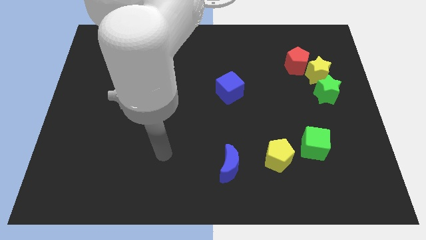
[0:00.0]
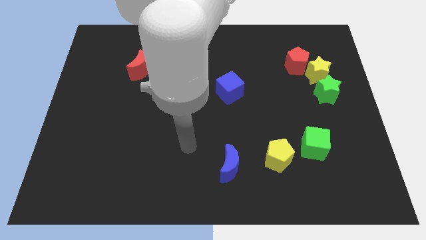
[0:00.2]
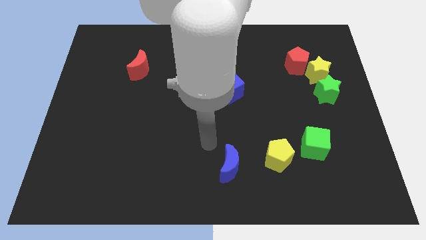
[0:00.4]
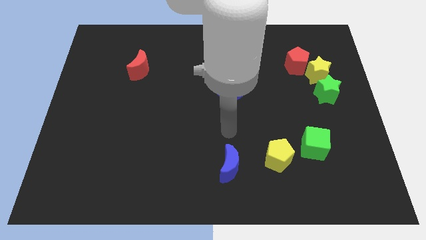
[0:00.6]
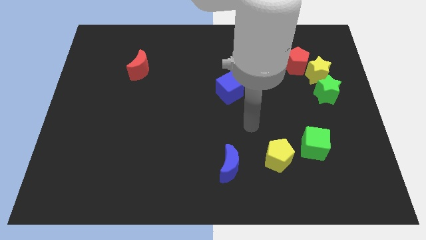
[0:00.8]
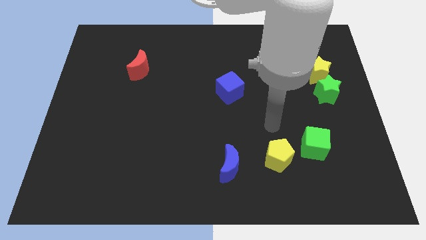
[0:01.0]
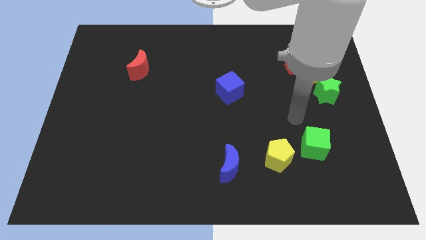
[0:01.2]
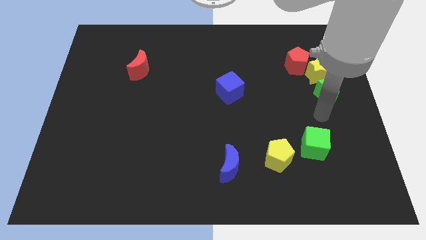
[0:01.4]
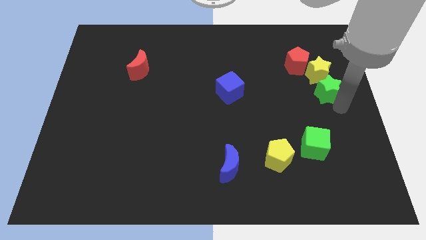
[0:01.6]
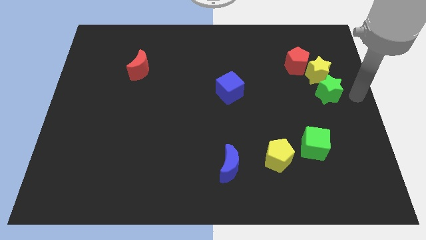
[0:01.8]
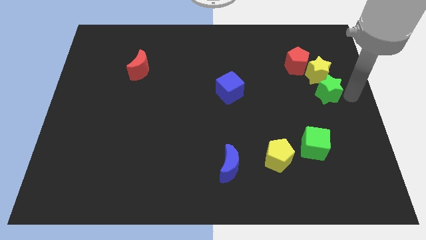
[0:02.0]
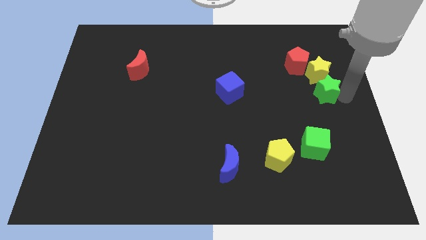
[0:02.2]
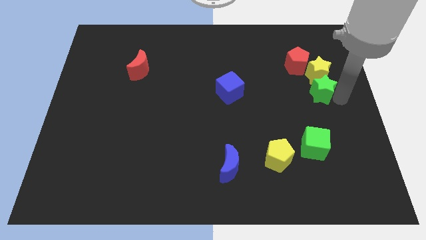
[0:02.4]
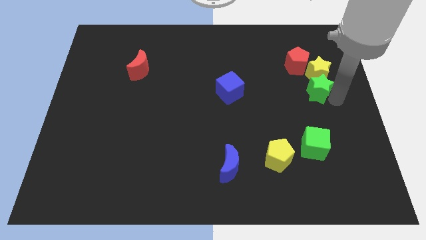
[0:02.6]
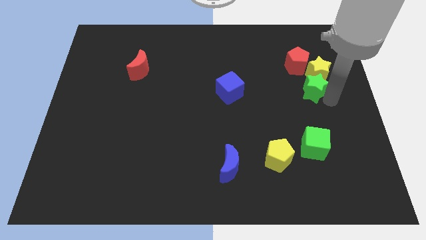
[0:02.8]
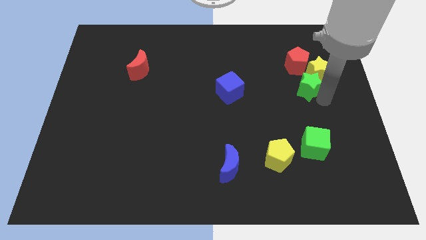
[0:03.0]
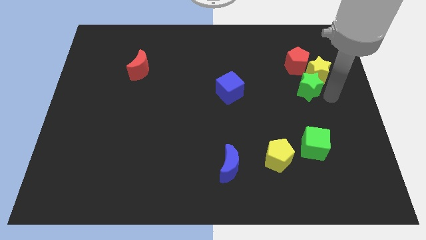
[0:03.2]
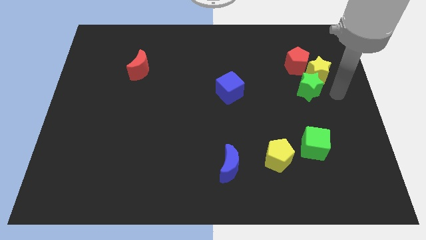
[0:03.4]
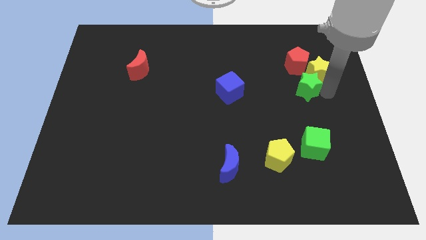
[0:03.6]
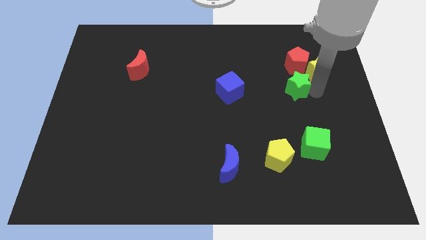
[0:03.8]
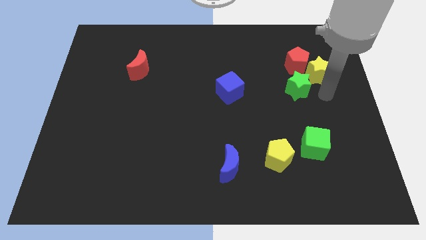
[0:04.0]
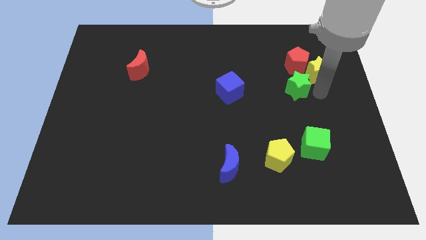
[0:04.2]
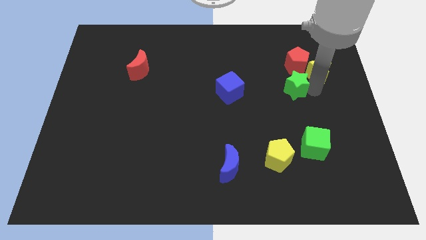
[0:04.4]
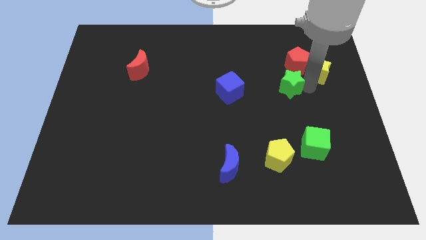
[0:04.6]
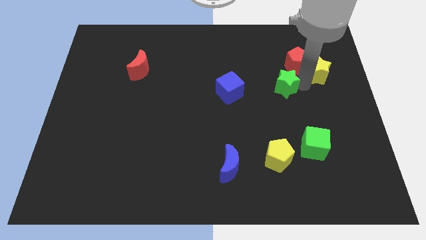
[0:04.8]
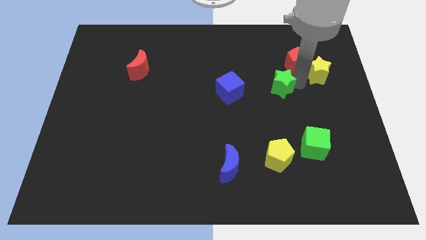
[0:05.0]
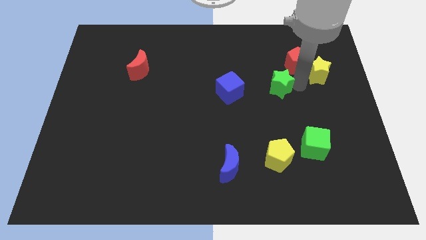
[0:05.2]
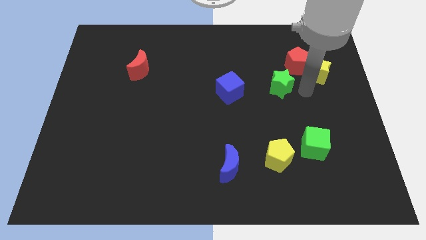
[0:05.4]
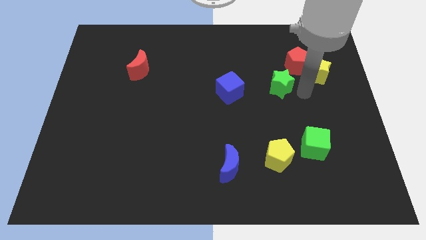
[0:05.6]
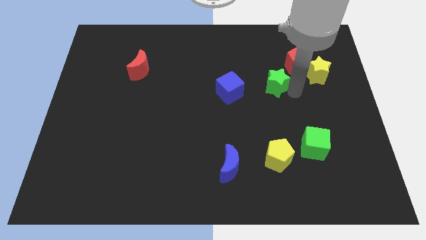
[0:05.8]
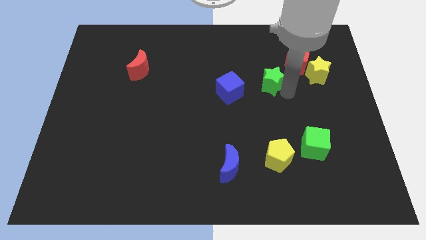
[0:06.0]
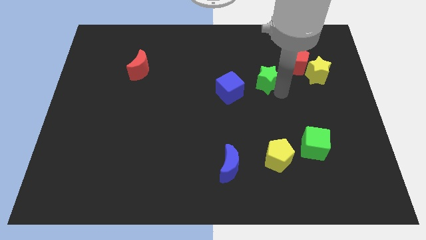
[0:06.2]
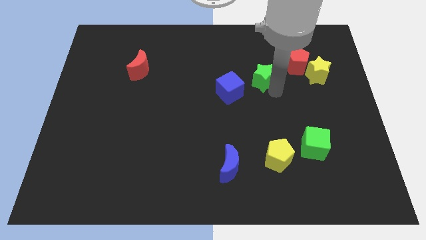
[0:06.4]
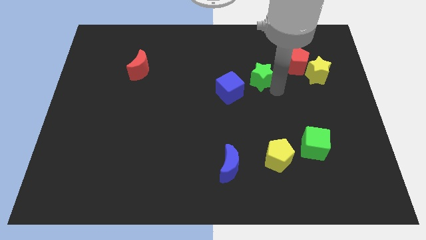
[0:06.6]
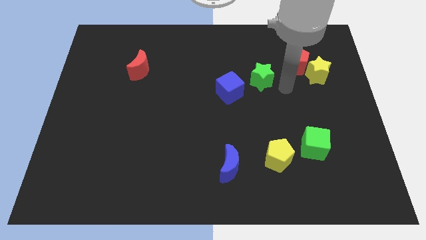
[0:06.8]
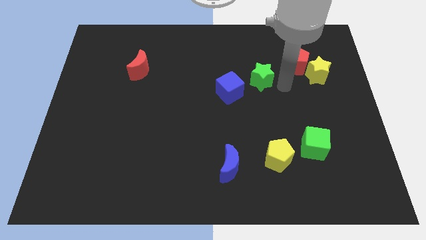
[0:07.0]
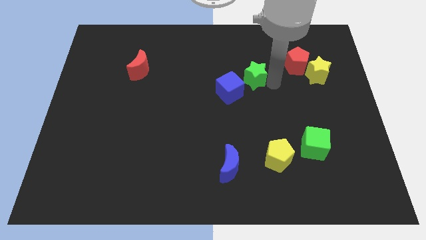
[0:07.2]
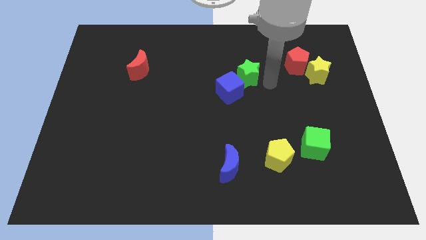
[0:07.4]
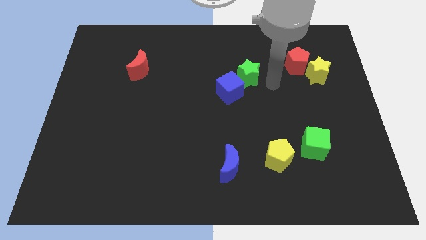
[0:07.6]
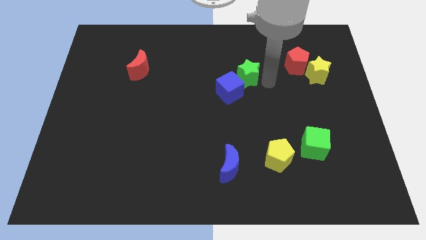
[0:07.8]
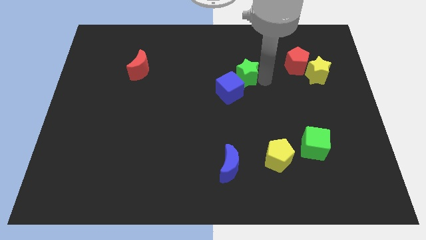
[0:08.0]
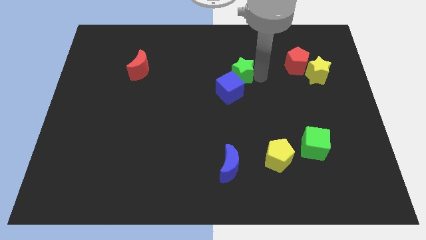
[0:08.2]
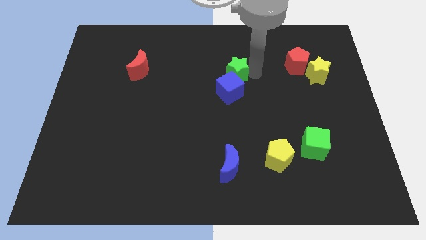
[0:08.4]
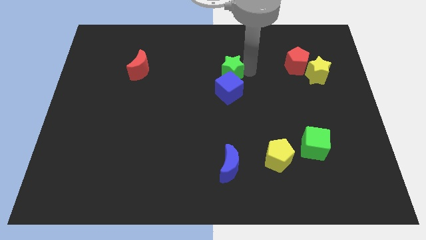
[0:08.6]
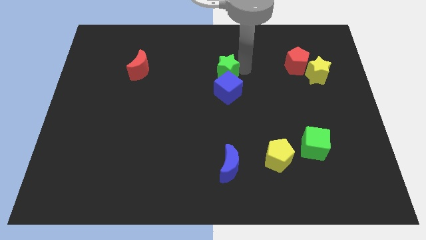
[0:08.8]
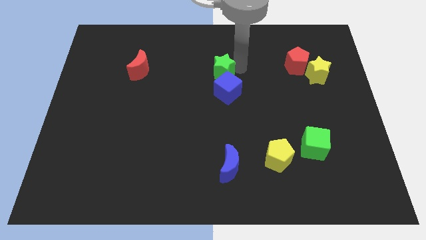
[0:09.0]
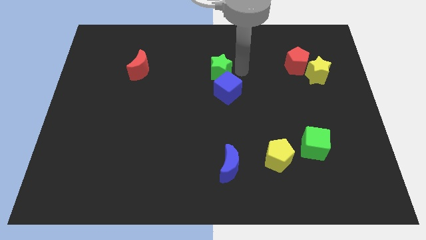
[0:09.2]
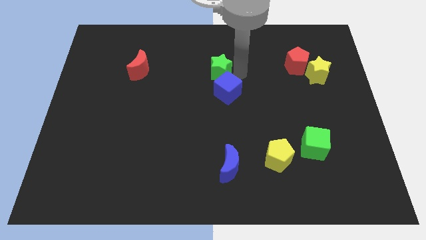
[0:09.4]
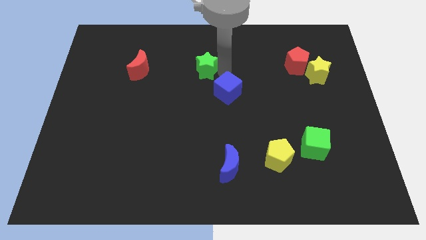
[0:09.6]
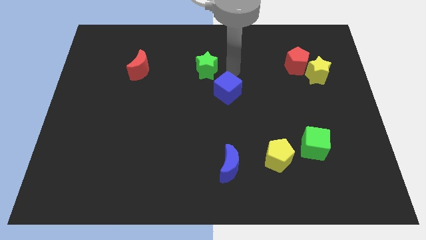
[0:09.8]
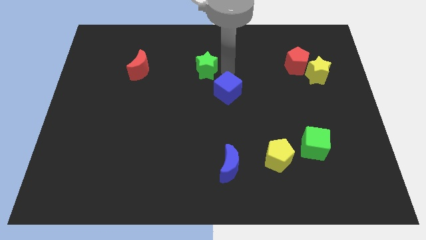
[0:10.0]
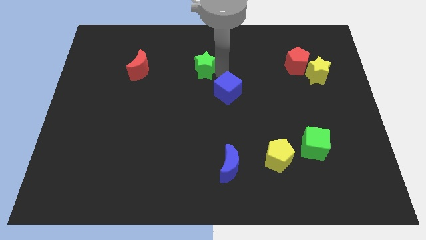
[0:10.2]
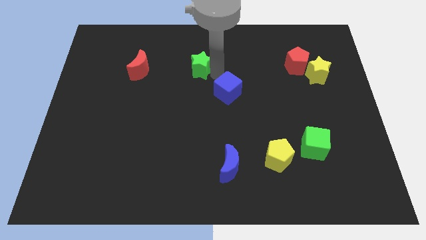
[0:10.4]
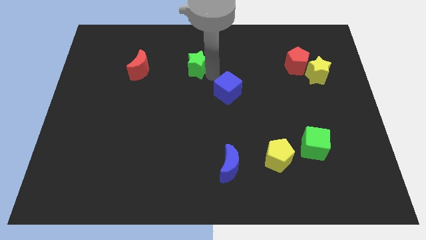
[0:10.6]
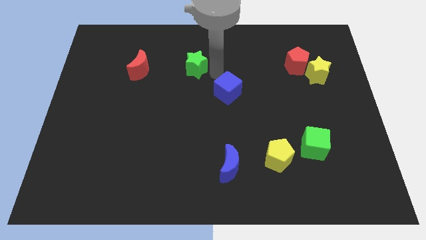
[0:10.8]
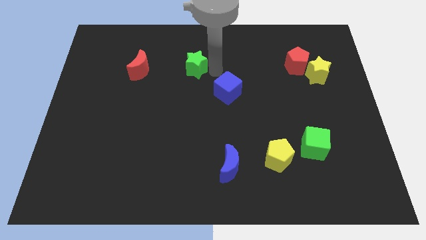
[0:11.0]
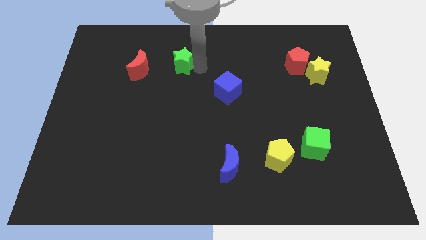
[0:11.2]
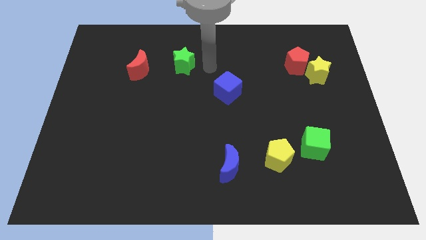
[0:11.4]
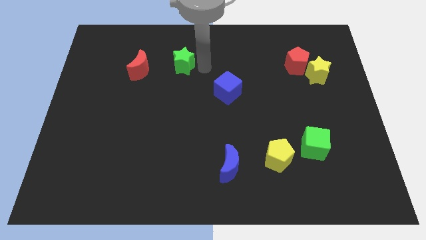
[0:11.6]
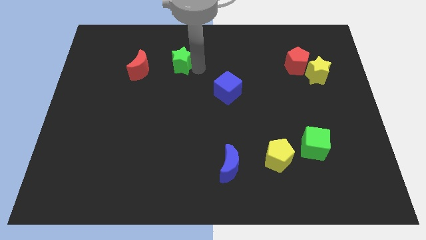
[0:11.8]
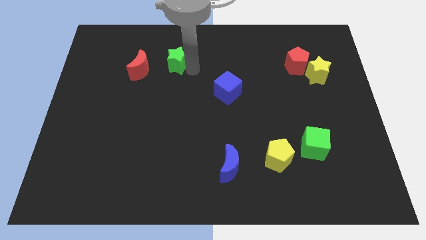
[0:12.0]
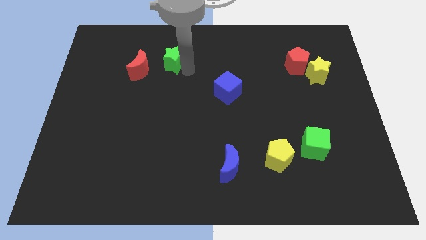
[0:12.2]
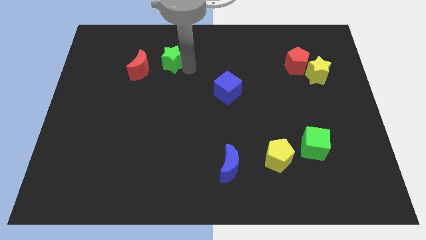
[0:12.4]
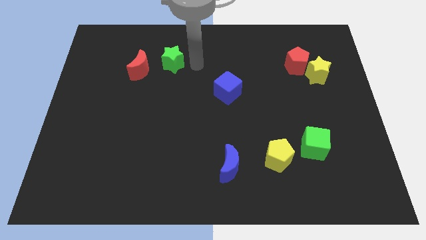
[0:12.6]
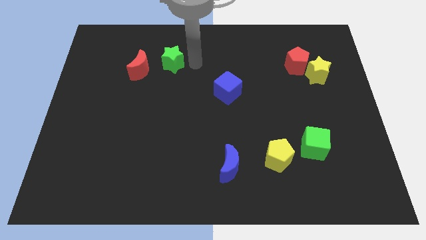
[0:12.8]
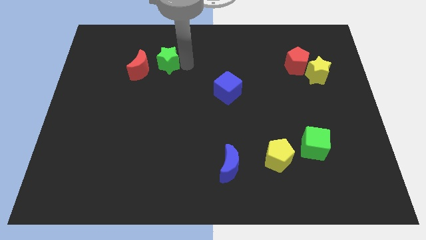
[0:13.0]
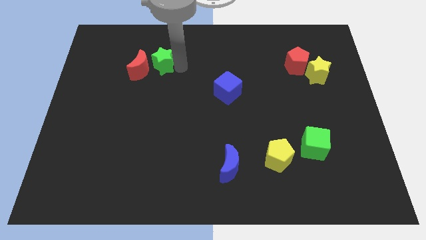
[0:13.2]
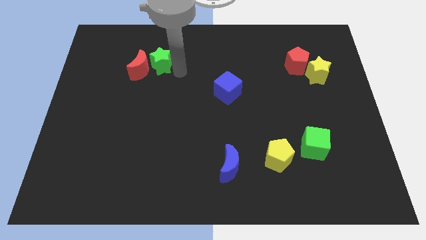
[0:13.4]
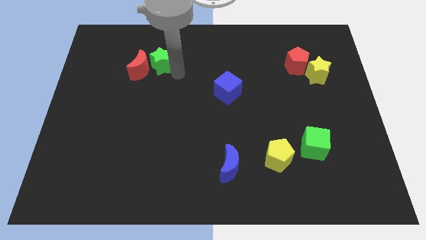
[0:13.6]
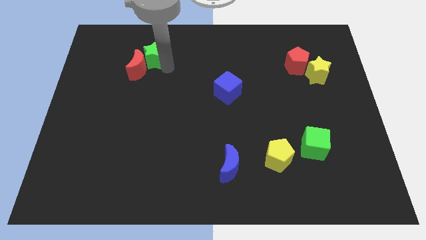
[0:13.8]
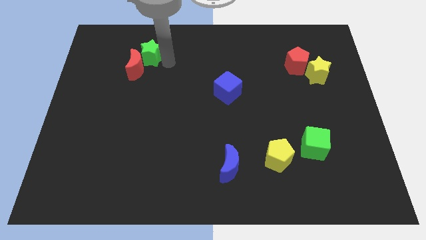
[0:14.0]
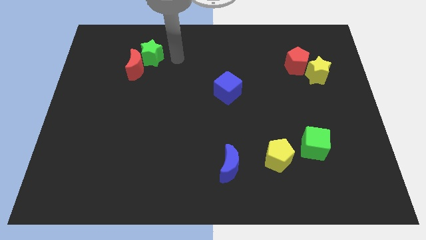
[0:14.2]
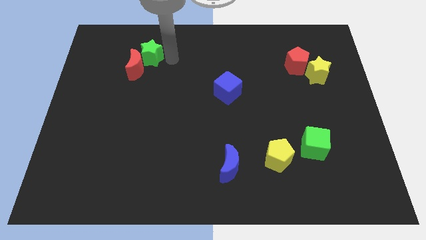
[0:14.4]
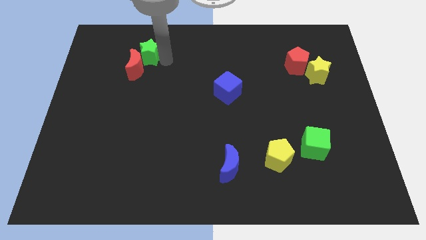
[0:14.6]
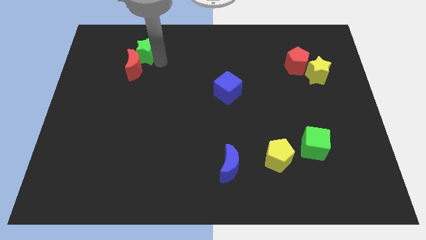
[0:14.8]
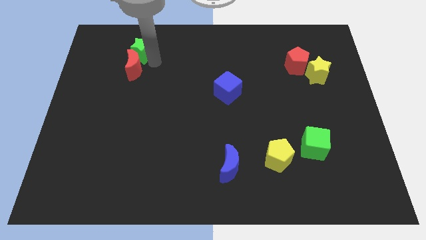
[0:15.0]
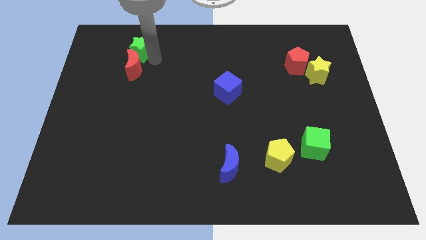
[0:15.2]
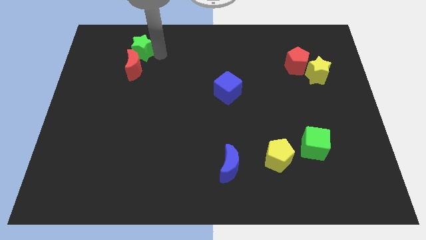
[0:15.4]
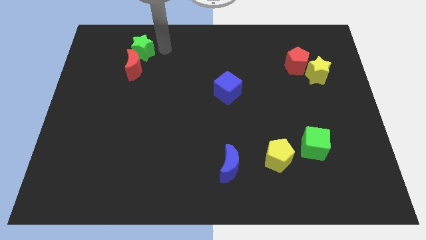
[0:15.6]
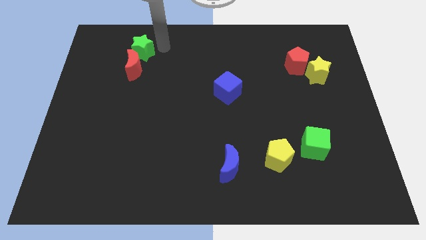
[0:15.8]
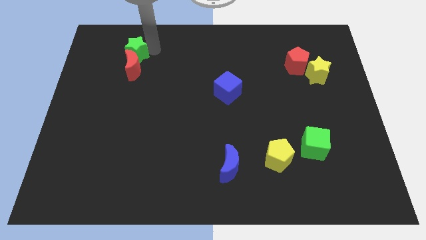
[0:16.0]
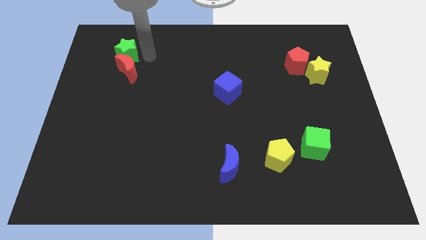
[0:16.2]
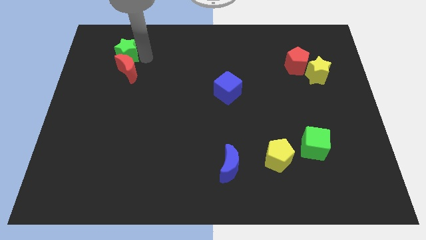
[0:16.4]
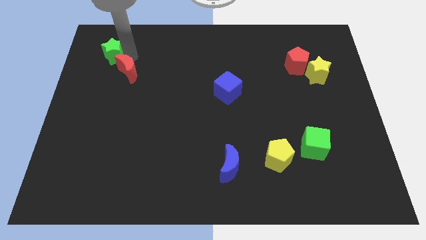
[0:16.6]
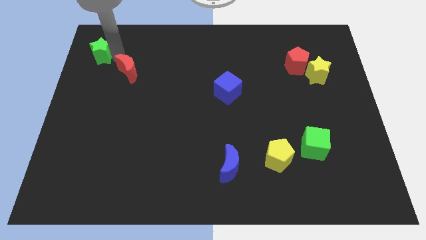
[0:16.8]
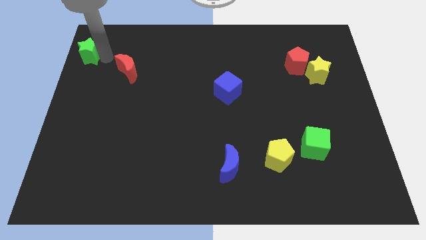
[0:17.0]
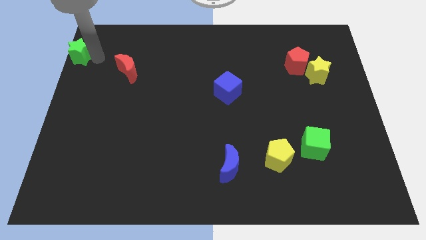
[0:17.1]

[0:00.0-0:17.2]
move the green star to the top left
